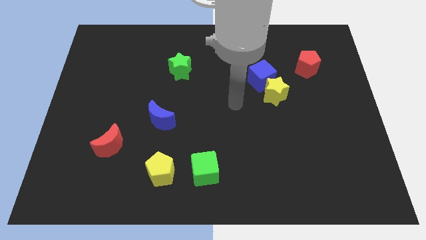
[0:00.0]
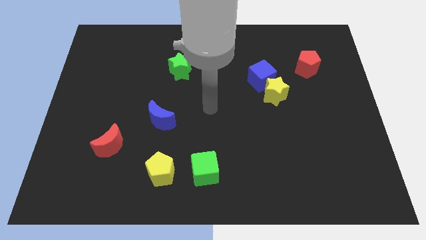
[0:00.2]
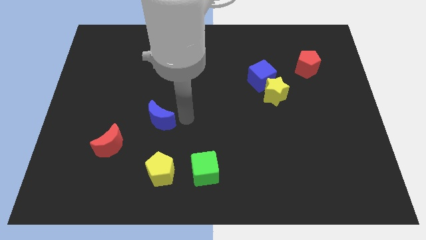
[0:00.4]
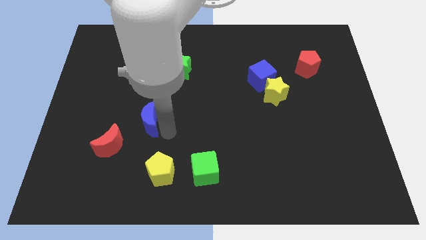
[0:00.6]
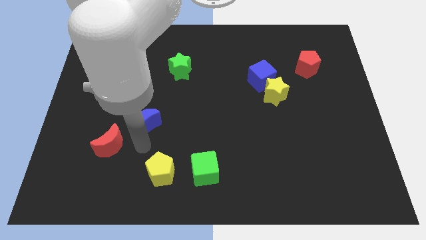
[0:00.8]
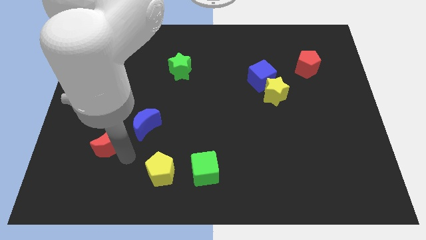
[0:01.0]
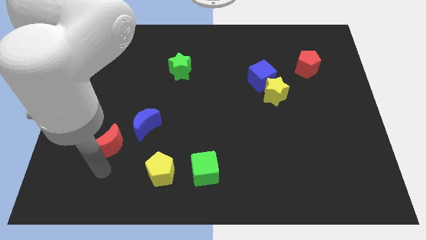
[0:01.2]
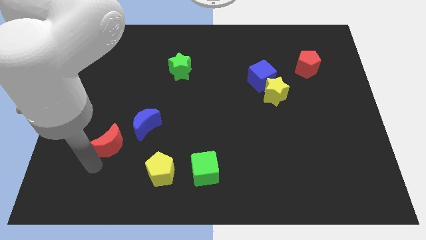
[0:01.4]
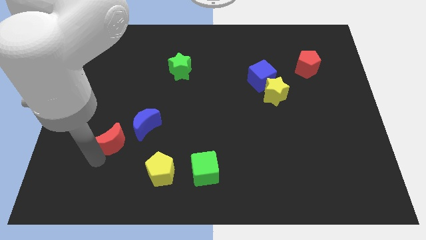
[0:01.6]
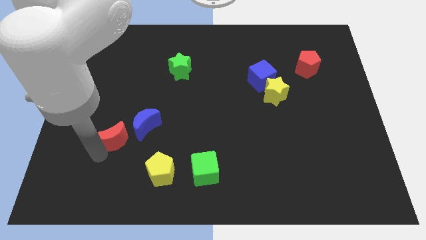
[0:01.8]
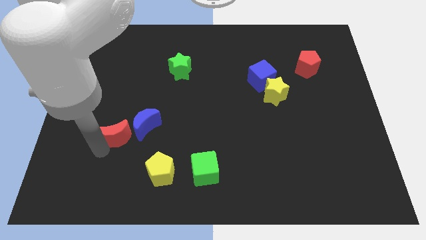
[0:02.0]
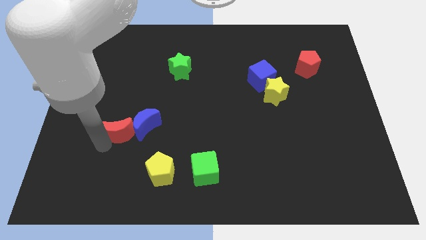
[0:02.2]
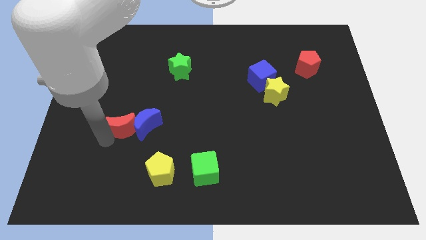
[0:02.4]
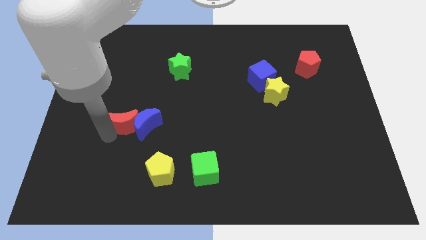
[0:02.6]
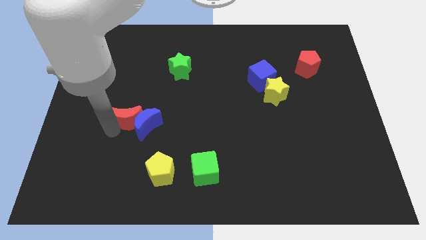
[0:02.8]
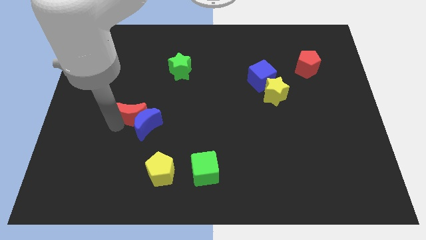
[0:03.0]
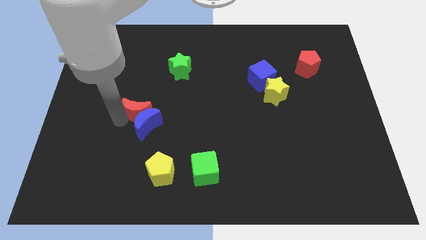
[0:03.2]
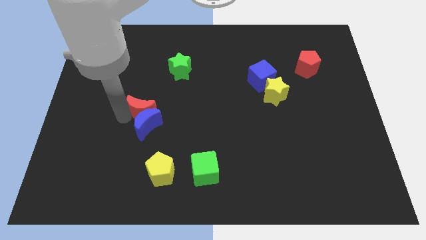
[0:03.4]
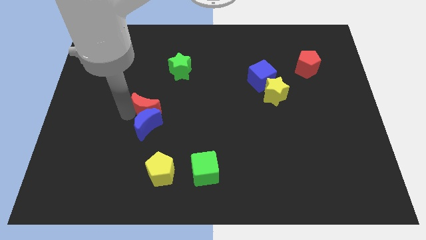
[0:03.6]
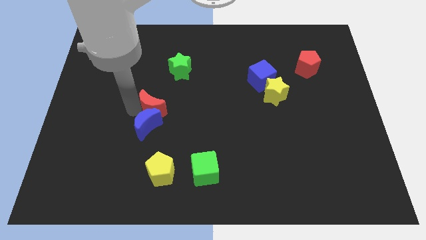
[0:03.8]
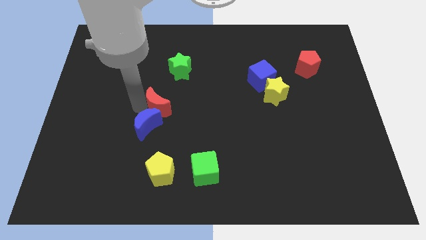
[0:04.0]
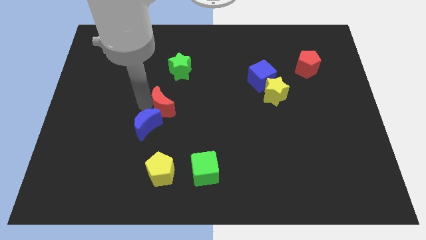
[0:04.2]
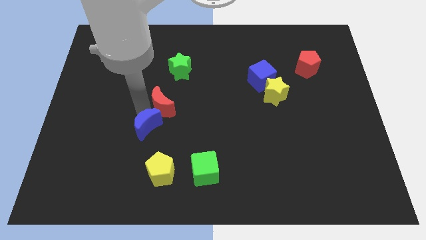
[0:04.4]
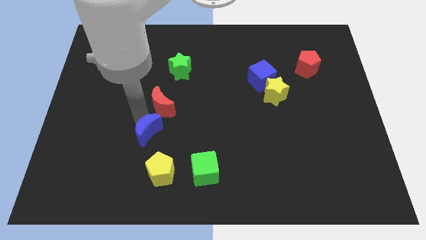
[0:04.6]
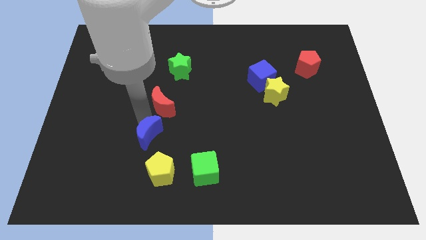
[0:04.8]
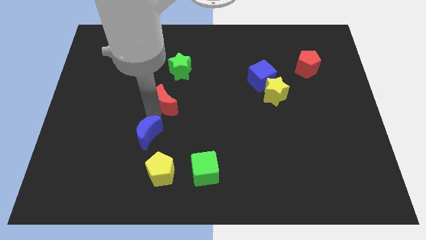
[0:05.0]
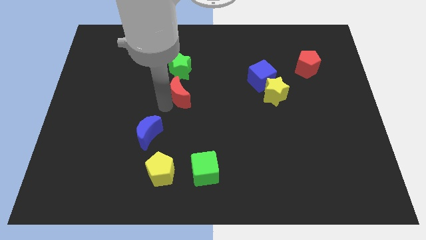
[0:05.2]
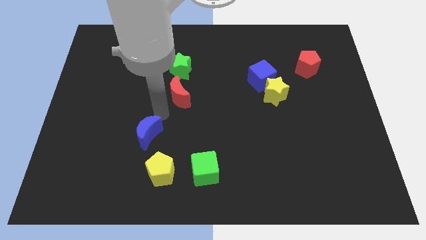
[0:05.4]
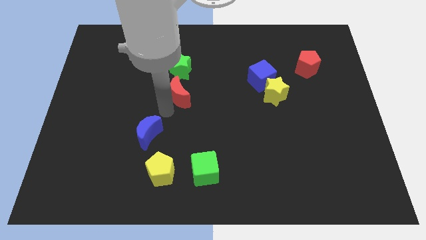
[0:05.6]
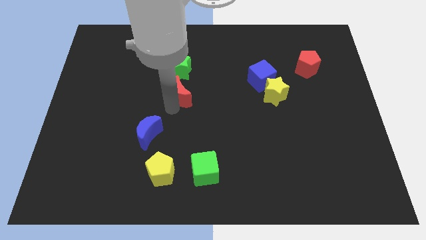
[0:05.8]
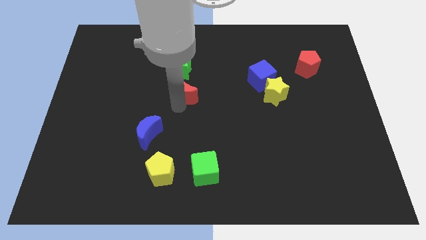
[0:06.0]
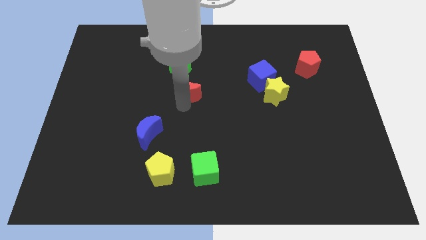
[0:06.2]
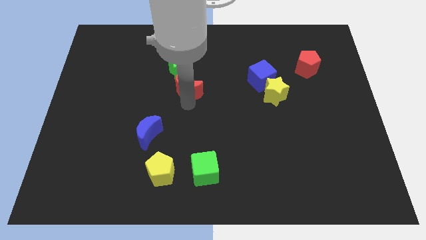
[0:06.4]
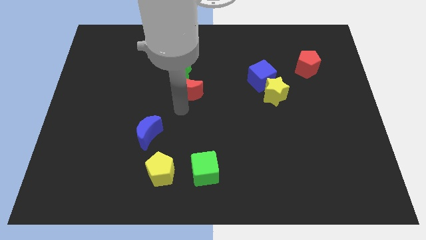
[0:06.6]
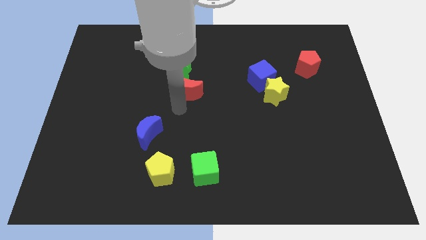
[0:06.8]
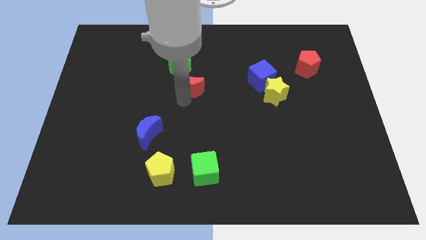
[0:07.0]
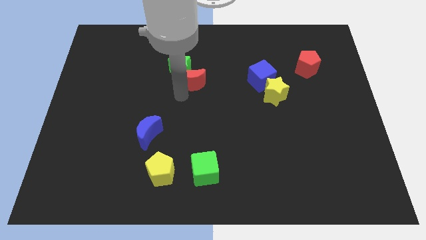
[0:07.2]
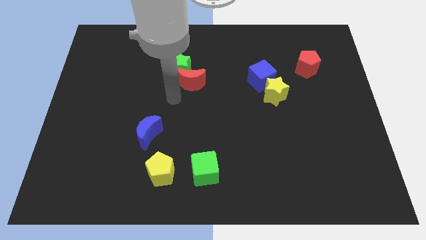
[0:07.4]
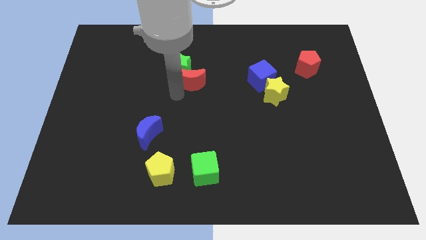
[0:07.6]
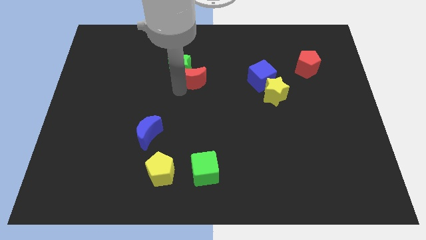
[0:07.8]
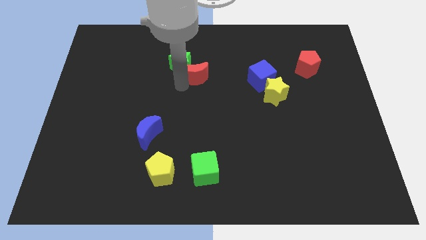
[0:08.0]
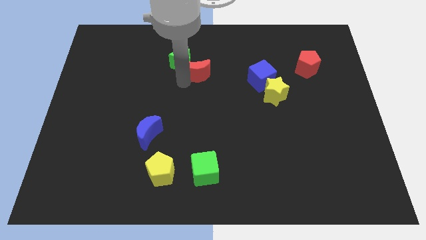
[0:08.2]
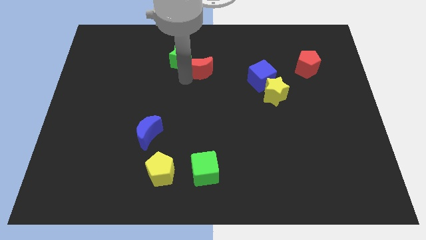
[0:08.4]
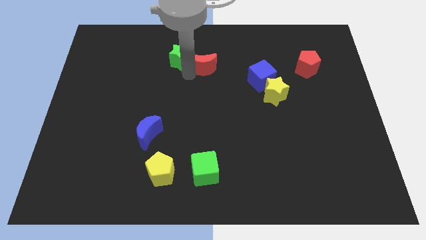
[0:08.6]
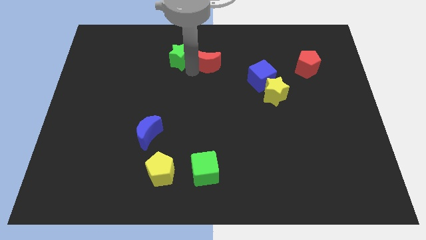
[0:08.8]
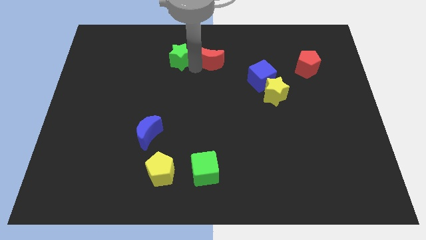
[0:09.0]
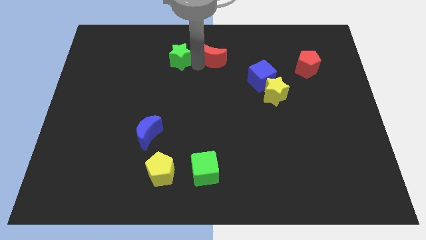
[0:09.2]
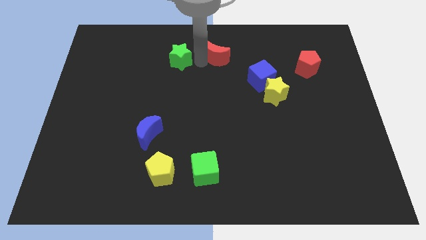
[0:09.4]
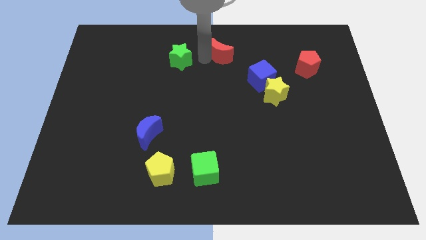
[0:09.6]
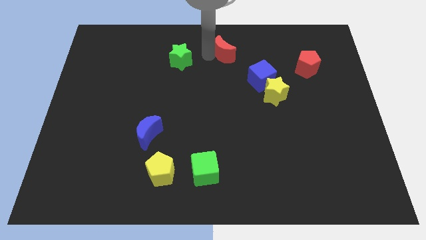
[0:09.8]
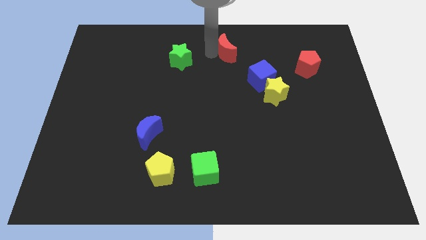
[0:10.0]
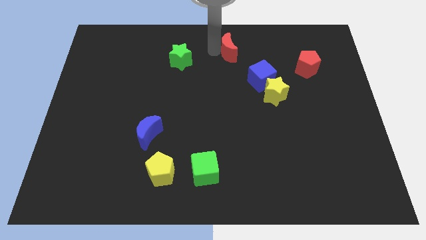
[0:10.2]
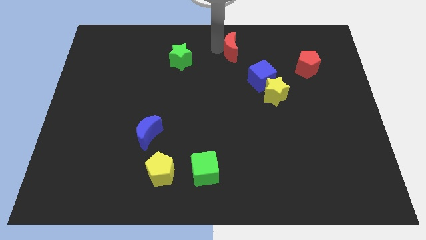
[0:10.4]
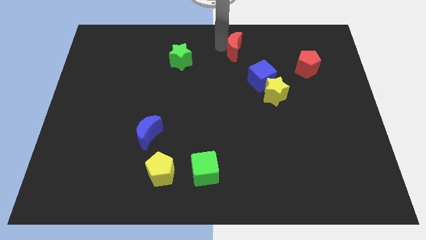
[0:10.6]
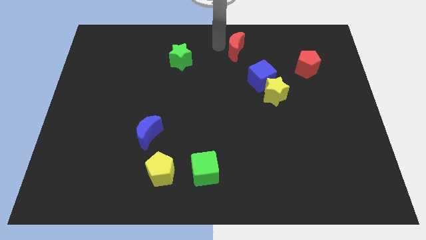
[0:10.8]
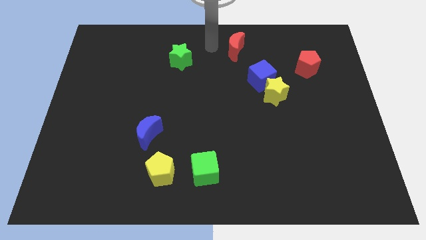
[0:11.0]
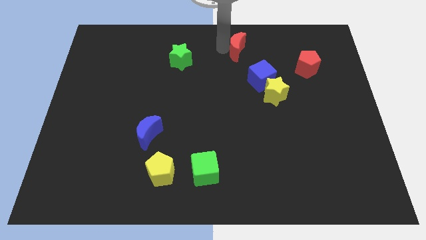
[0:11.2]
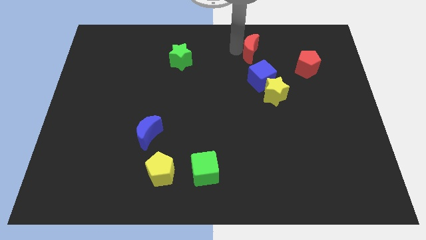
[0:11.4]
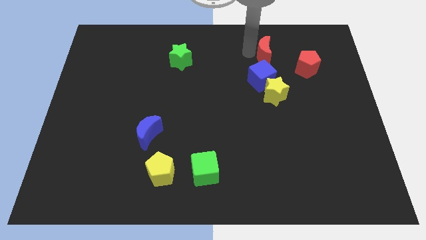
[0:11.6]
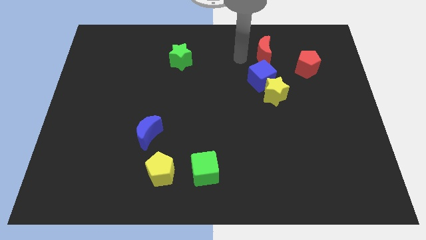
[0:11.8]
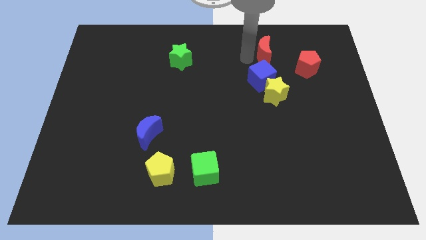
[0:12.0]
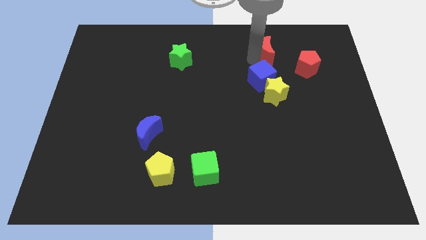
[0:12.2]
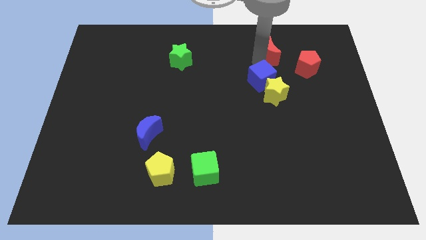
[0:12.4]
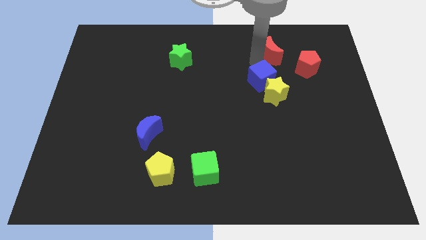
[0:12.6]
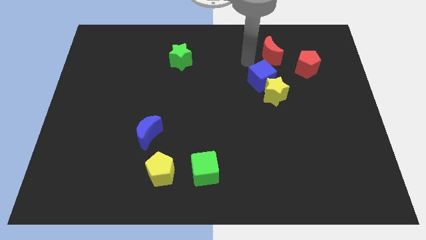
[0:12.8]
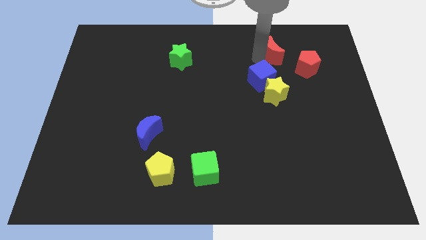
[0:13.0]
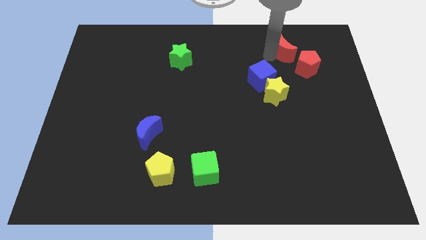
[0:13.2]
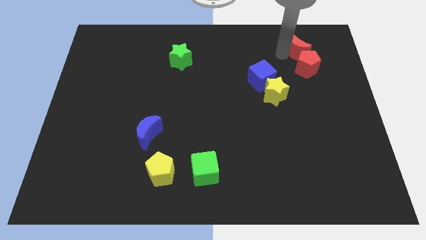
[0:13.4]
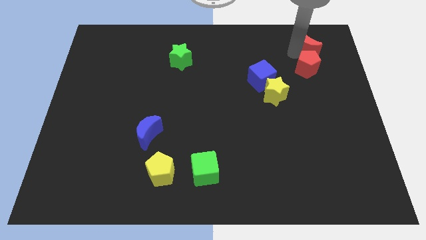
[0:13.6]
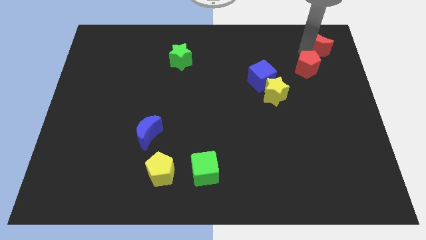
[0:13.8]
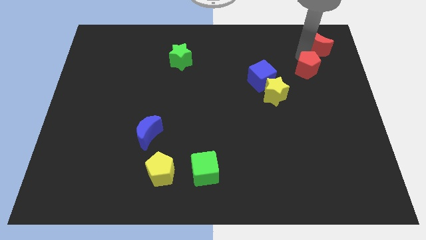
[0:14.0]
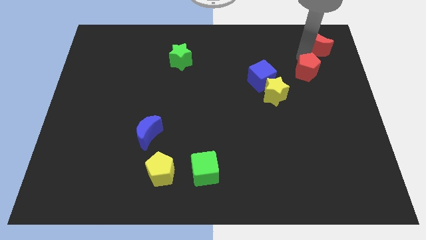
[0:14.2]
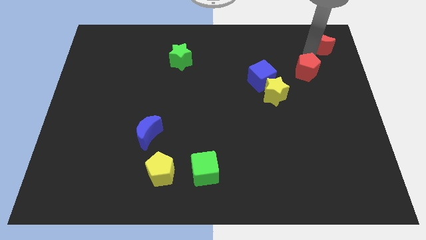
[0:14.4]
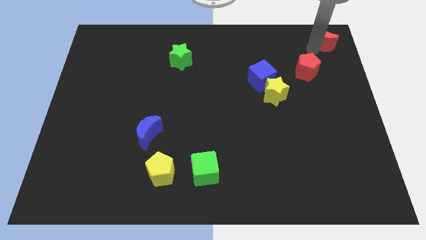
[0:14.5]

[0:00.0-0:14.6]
move the red moon to the top right

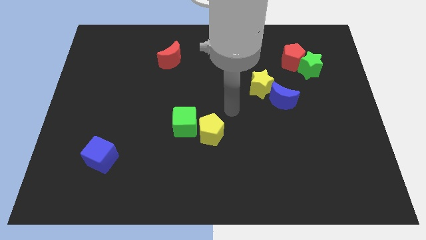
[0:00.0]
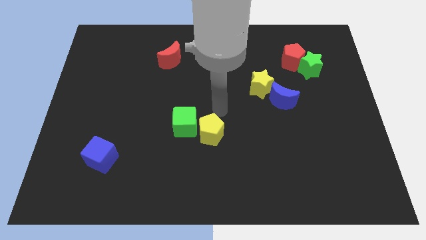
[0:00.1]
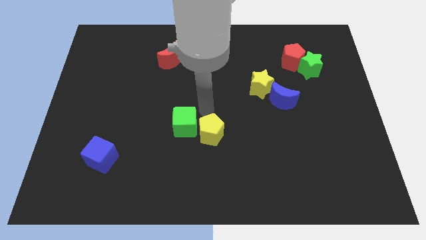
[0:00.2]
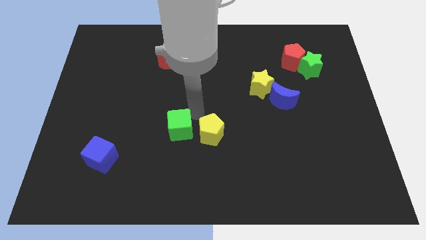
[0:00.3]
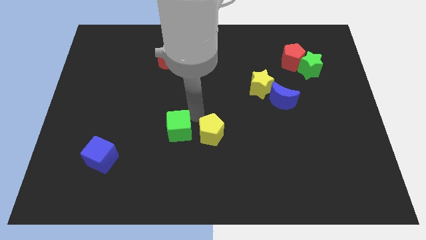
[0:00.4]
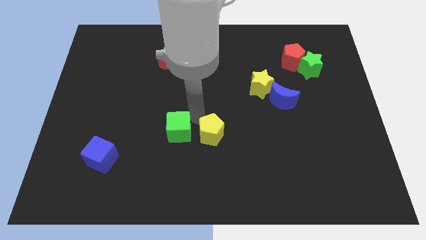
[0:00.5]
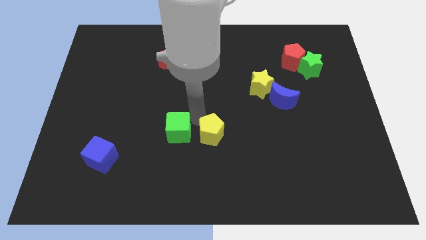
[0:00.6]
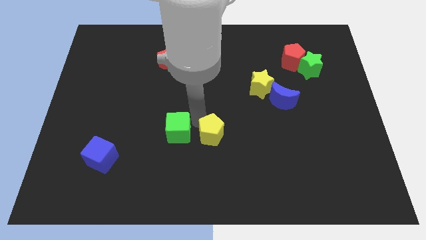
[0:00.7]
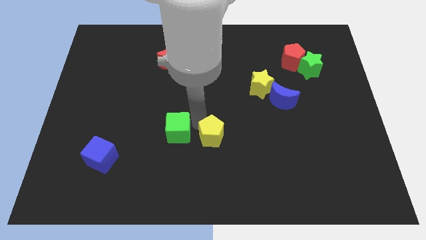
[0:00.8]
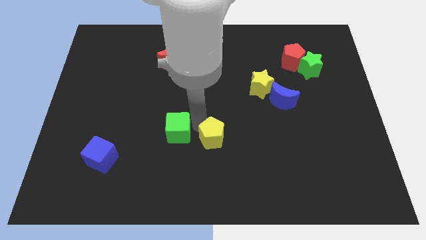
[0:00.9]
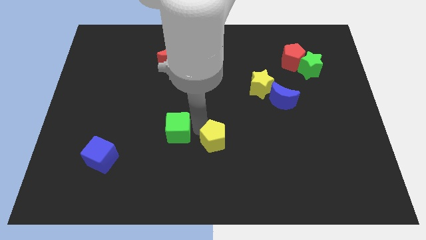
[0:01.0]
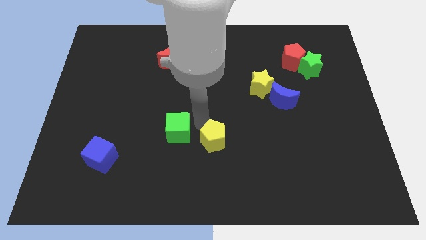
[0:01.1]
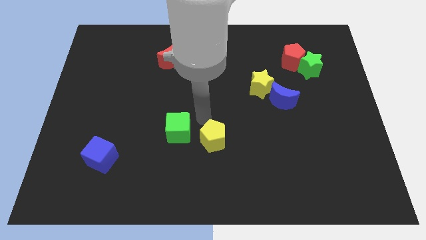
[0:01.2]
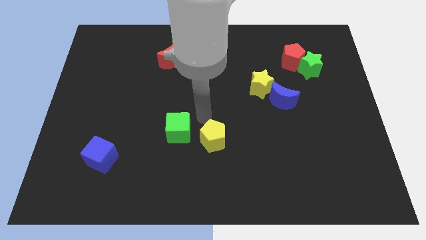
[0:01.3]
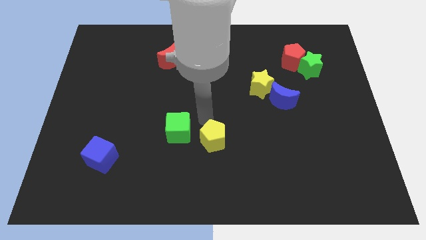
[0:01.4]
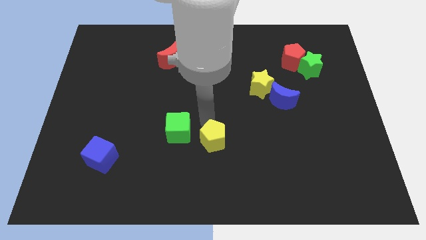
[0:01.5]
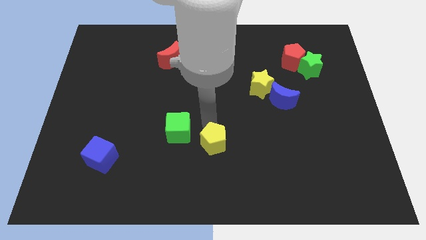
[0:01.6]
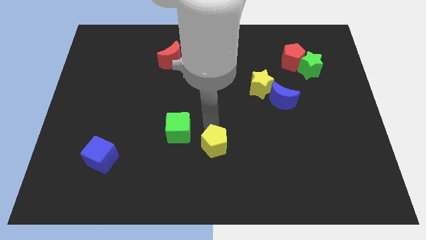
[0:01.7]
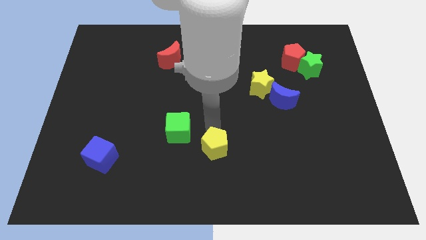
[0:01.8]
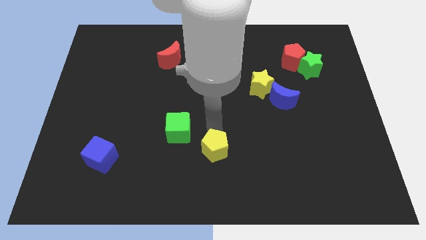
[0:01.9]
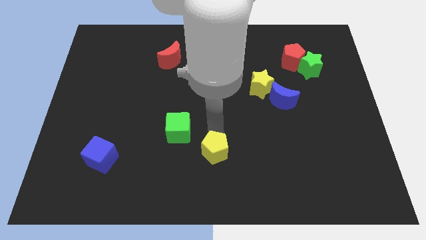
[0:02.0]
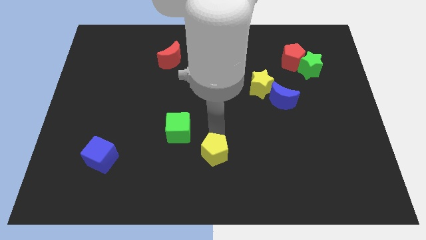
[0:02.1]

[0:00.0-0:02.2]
move the yellow pentagon to the bottom
